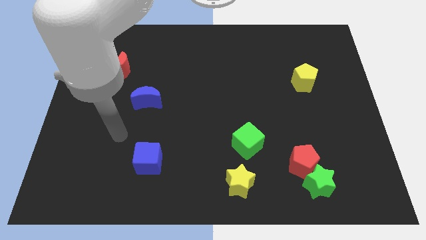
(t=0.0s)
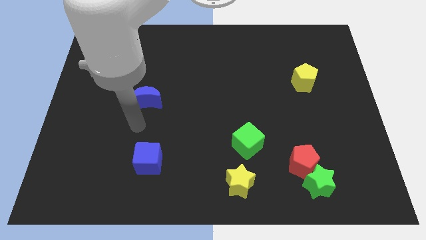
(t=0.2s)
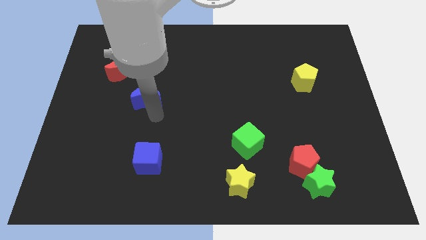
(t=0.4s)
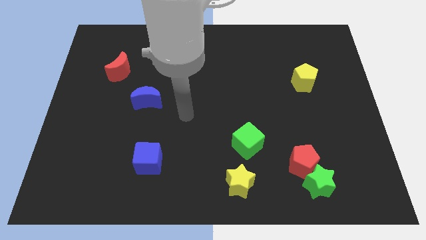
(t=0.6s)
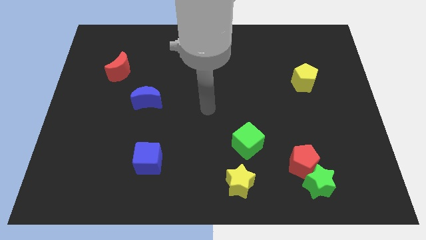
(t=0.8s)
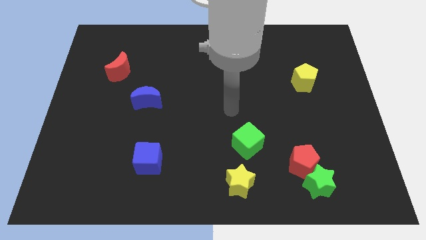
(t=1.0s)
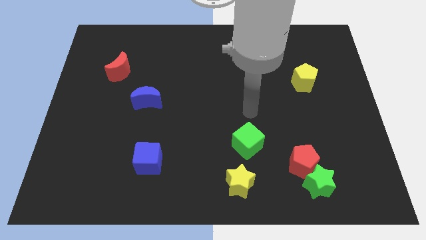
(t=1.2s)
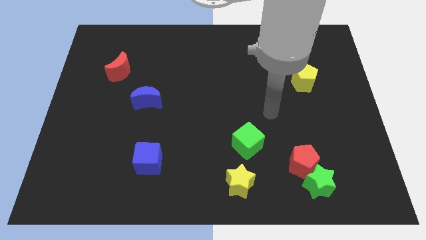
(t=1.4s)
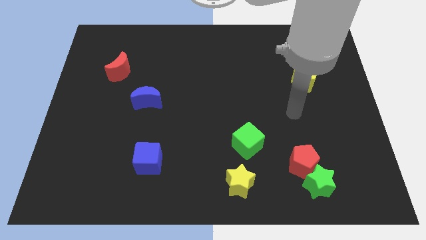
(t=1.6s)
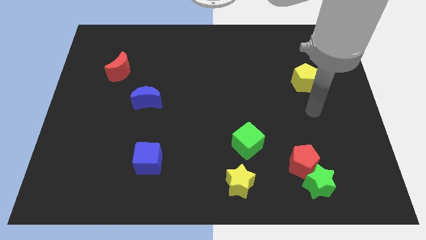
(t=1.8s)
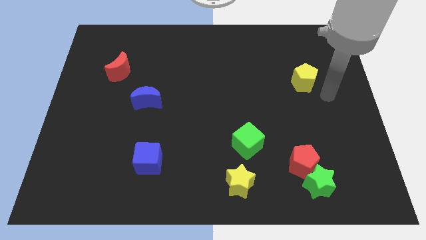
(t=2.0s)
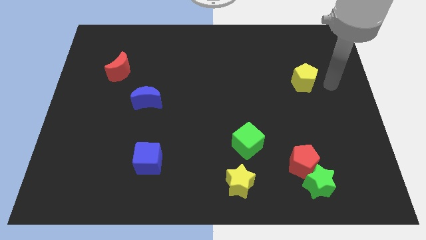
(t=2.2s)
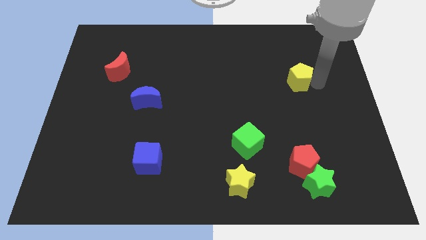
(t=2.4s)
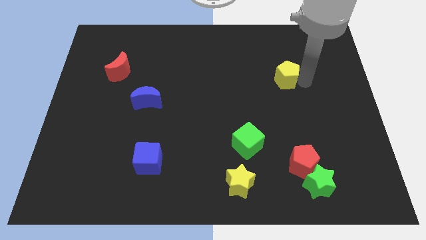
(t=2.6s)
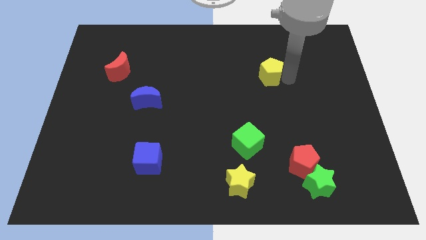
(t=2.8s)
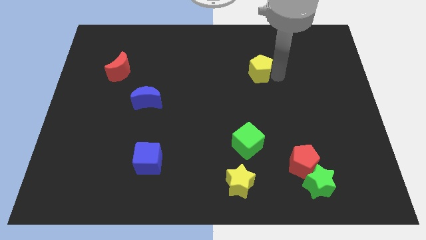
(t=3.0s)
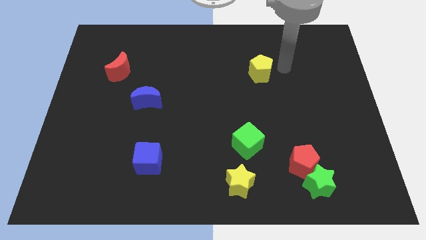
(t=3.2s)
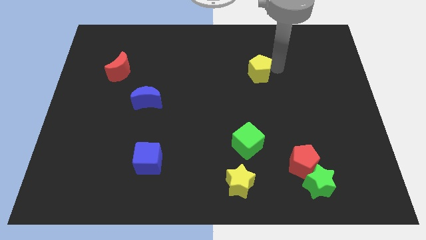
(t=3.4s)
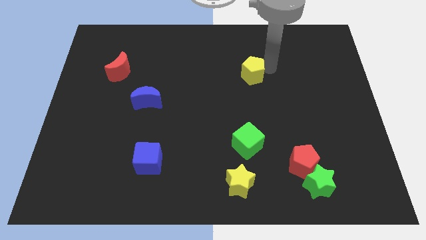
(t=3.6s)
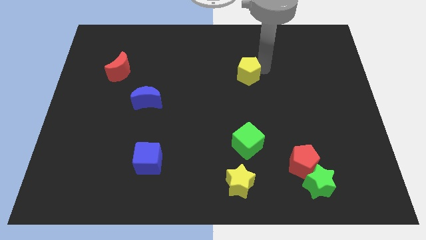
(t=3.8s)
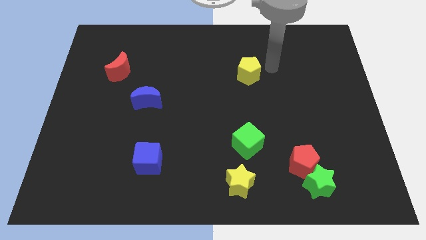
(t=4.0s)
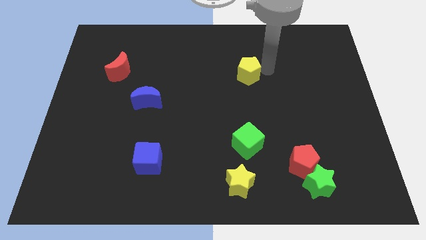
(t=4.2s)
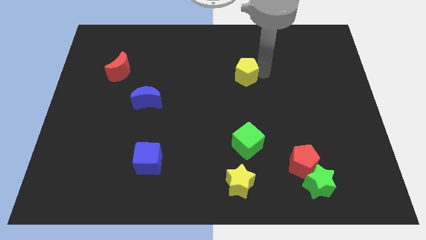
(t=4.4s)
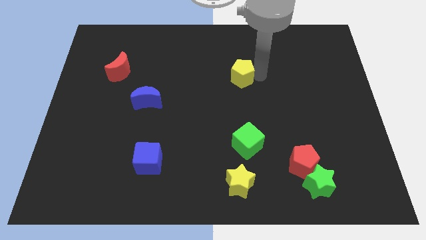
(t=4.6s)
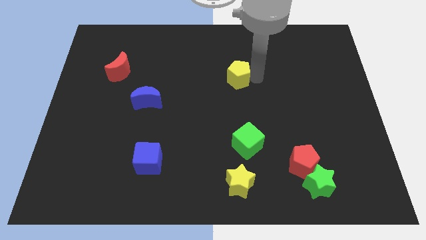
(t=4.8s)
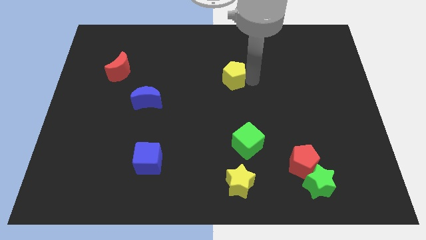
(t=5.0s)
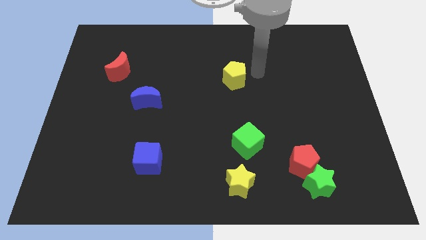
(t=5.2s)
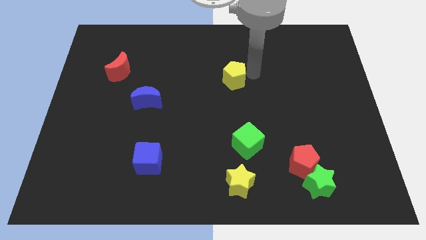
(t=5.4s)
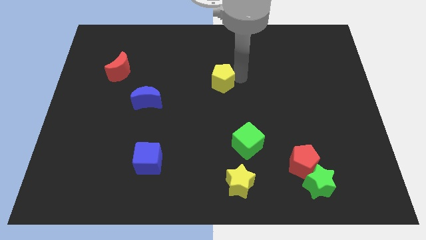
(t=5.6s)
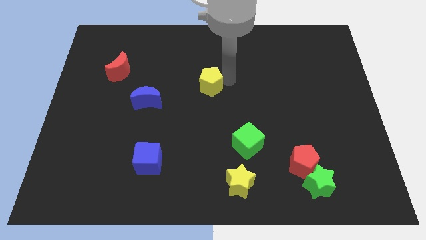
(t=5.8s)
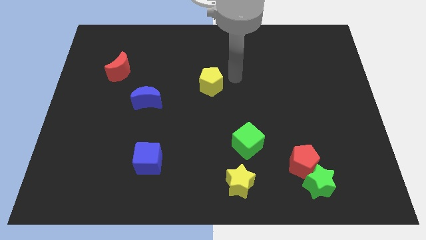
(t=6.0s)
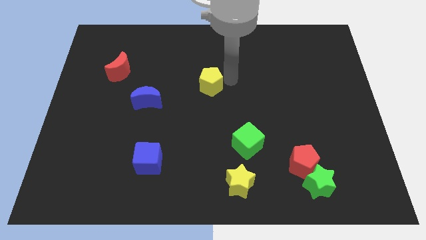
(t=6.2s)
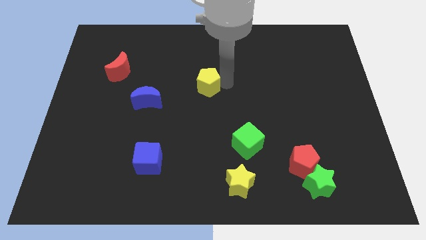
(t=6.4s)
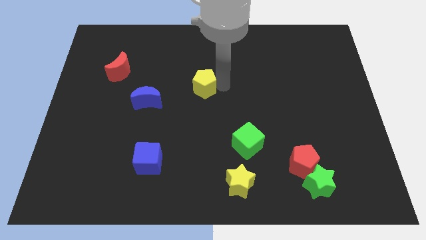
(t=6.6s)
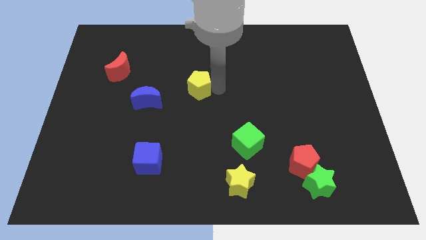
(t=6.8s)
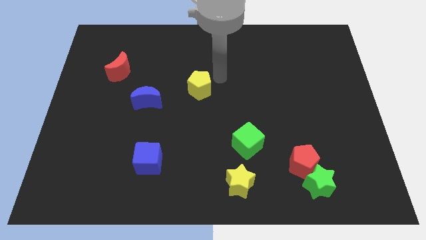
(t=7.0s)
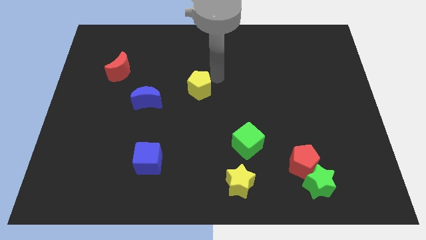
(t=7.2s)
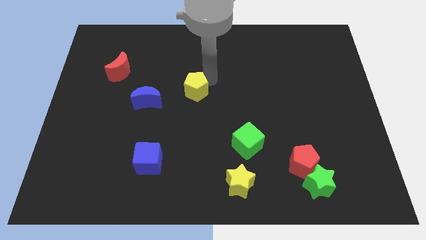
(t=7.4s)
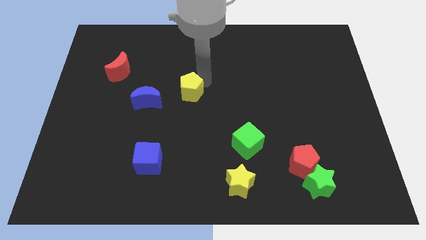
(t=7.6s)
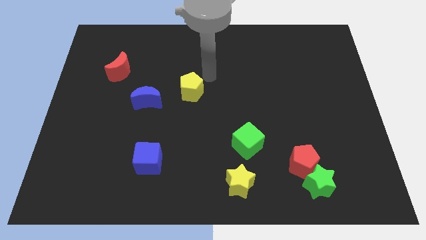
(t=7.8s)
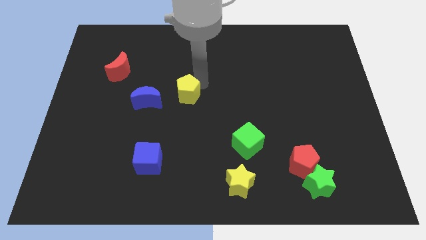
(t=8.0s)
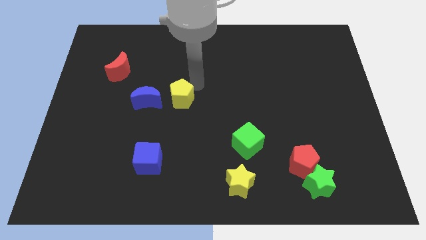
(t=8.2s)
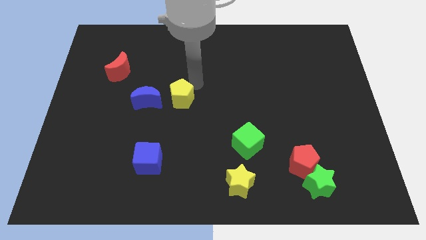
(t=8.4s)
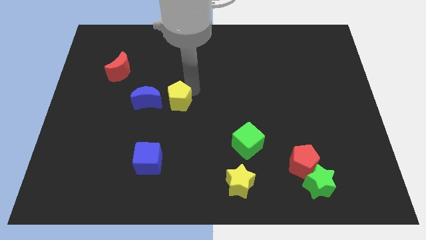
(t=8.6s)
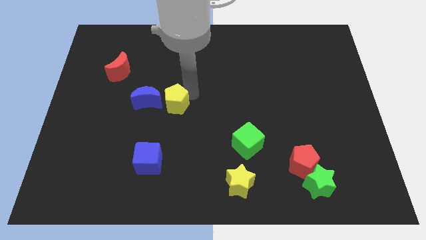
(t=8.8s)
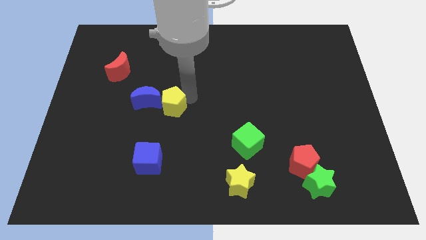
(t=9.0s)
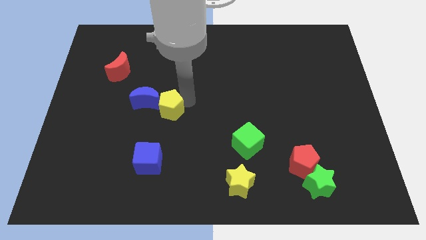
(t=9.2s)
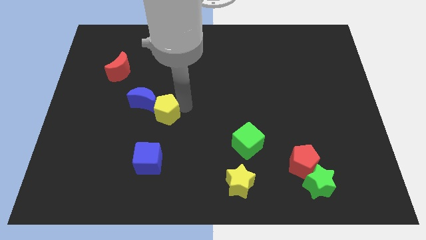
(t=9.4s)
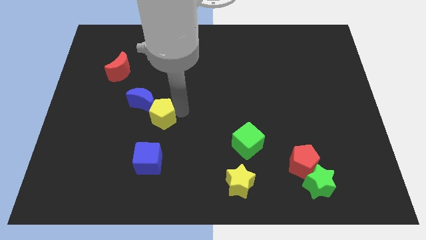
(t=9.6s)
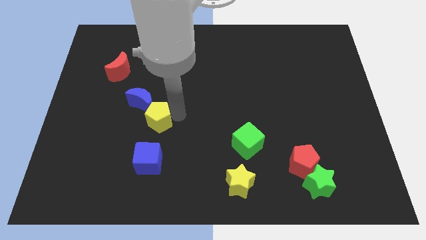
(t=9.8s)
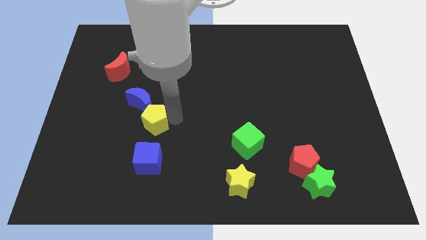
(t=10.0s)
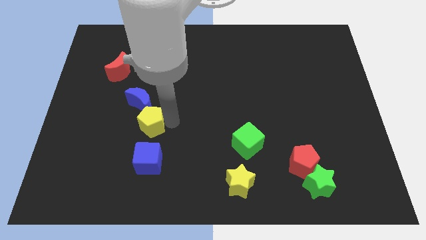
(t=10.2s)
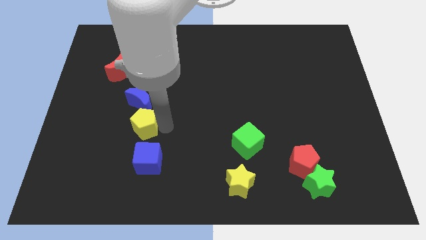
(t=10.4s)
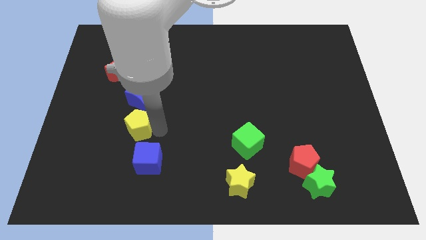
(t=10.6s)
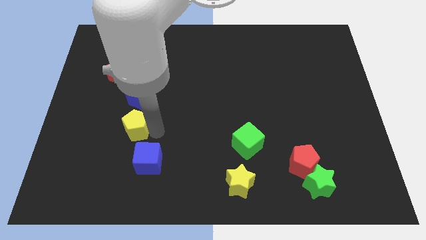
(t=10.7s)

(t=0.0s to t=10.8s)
slide the yellow pentagon to the bottom left of the blue moon

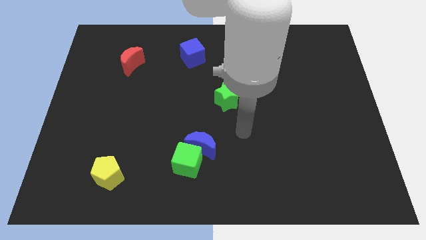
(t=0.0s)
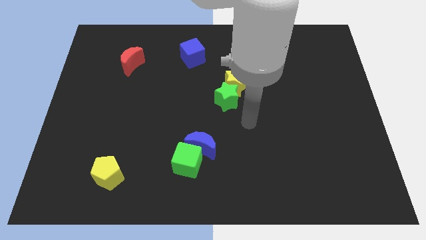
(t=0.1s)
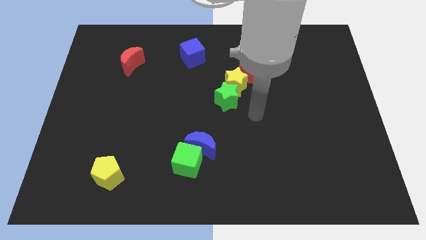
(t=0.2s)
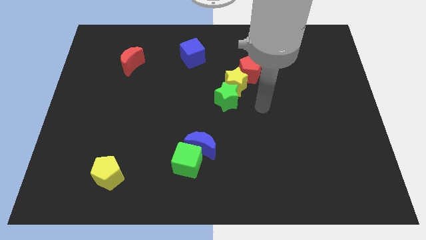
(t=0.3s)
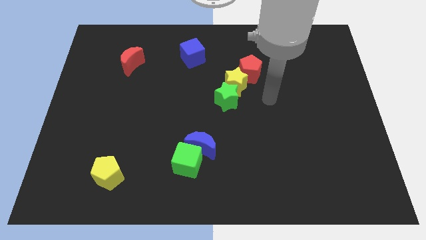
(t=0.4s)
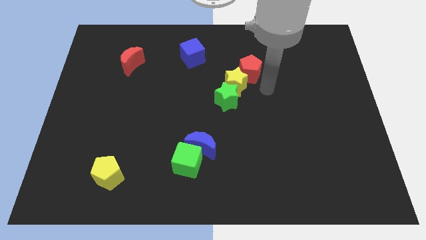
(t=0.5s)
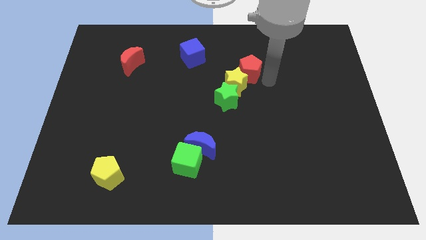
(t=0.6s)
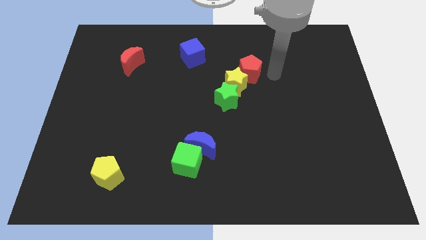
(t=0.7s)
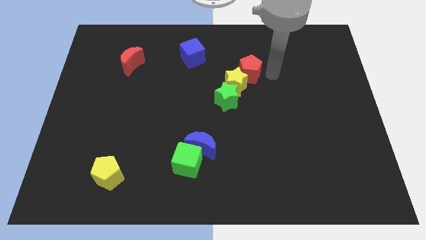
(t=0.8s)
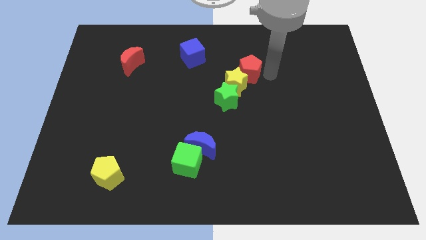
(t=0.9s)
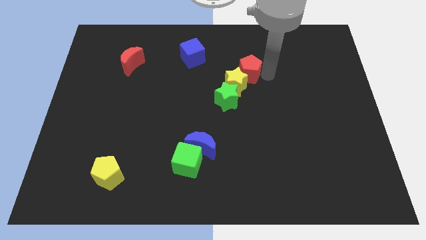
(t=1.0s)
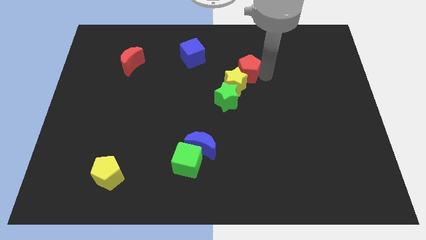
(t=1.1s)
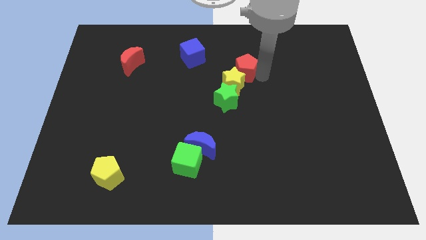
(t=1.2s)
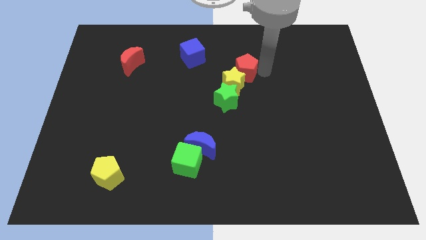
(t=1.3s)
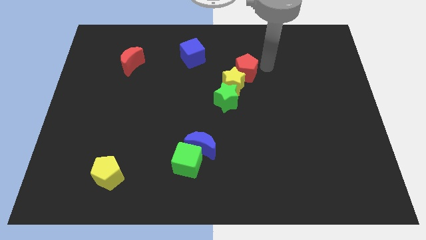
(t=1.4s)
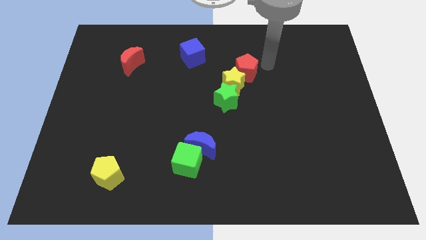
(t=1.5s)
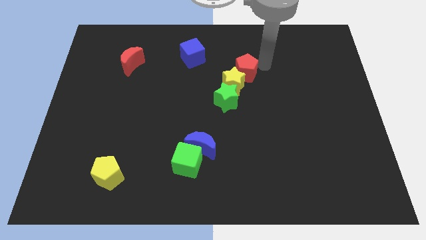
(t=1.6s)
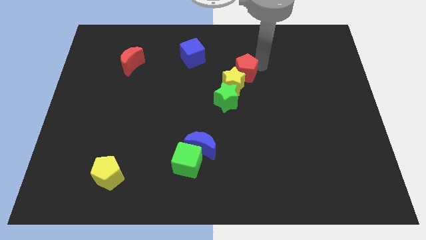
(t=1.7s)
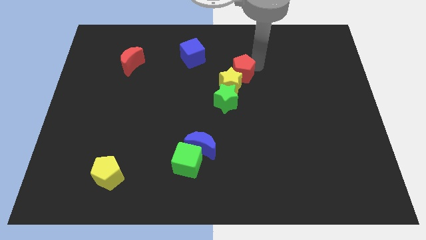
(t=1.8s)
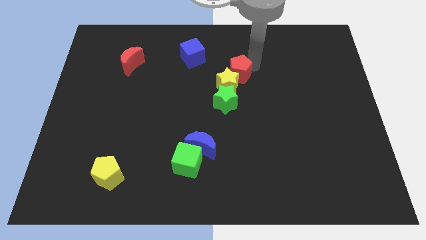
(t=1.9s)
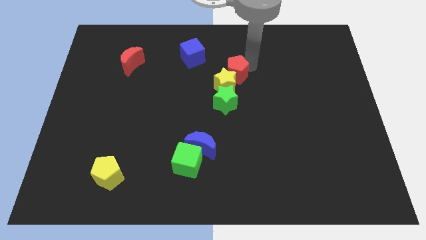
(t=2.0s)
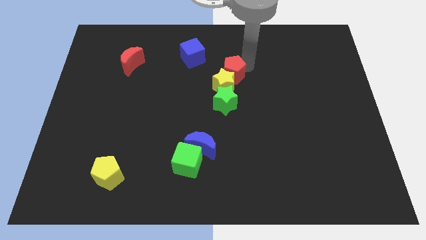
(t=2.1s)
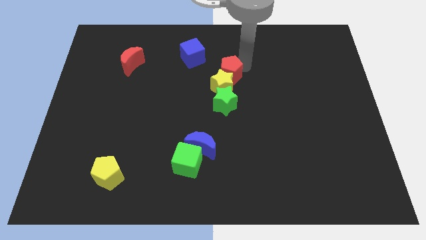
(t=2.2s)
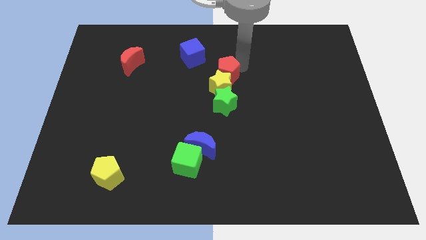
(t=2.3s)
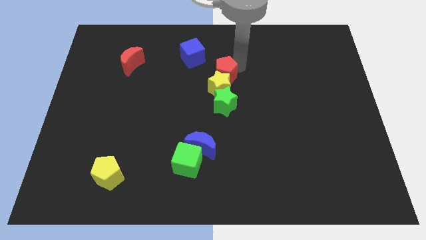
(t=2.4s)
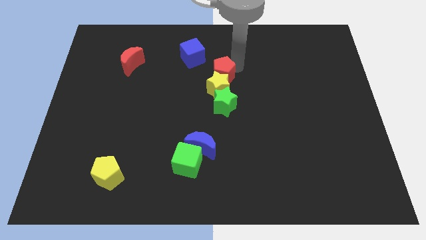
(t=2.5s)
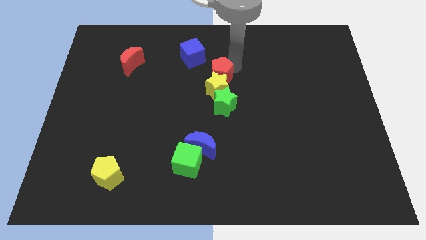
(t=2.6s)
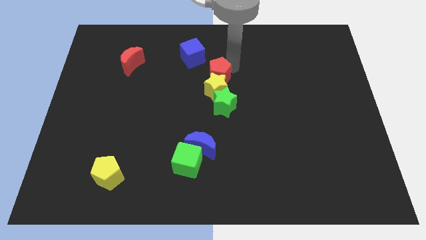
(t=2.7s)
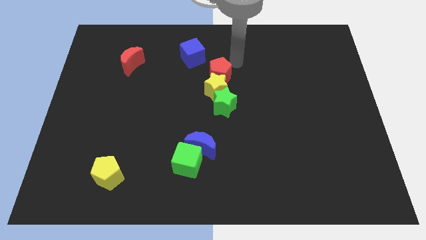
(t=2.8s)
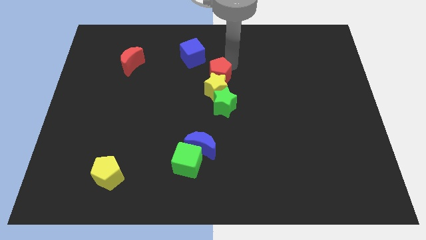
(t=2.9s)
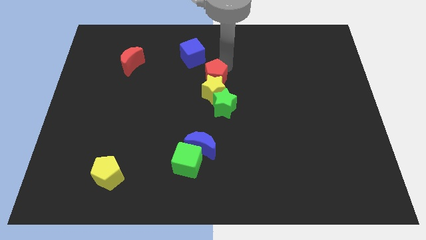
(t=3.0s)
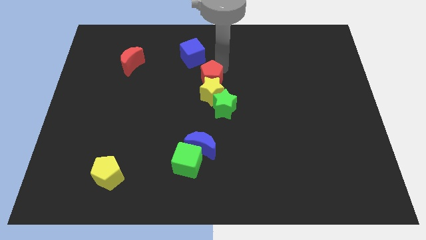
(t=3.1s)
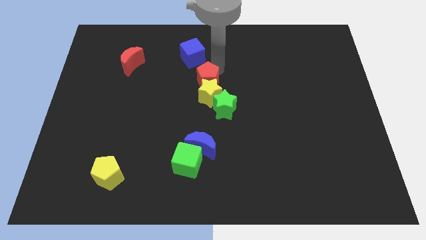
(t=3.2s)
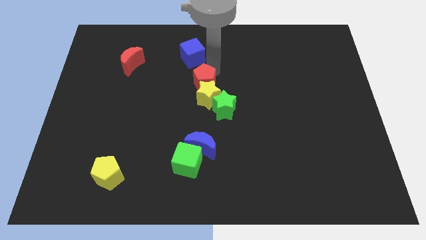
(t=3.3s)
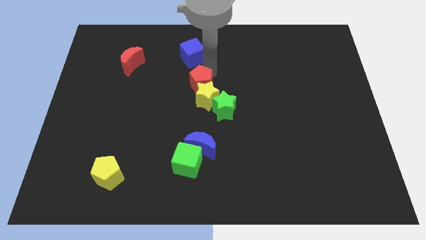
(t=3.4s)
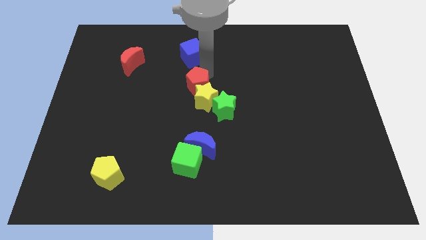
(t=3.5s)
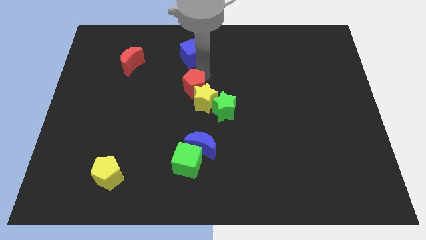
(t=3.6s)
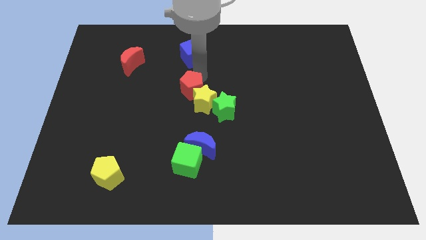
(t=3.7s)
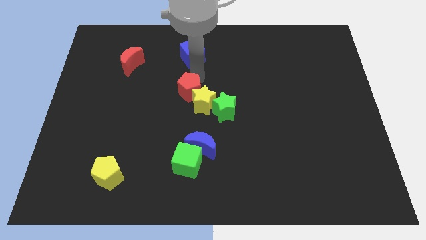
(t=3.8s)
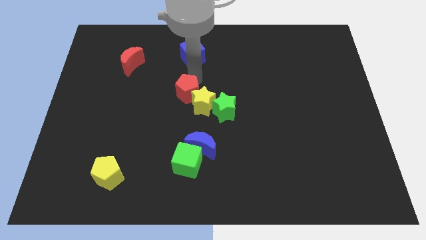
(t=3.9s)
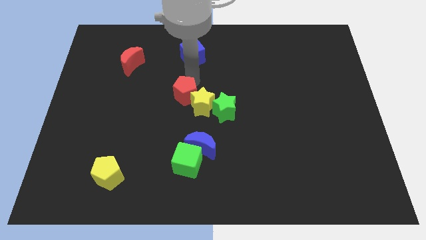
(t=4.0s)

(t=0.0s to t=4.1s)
slide the red pentagon to the left of the green star
